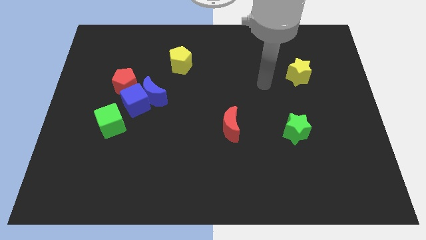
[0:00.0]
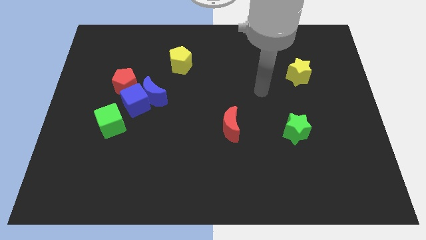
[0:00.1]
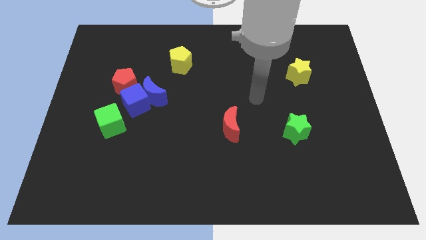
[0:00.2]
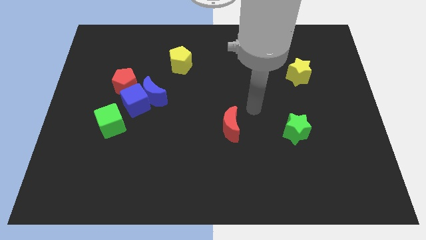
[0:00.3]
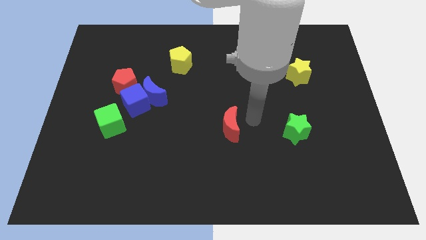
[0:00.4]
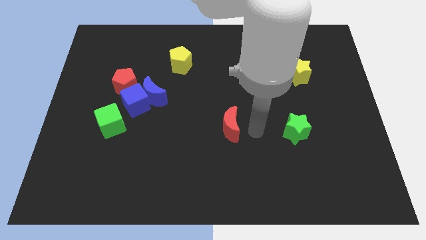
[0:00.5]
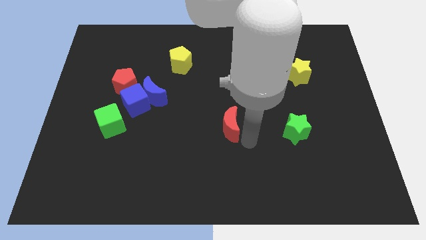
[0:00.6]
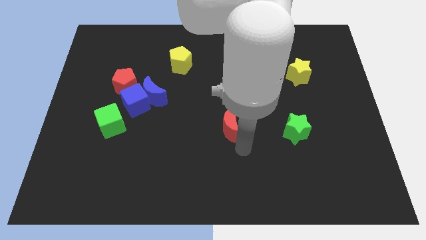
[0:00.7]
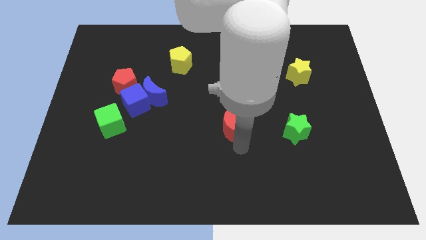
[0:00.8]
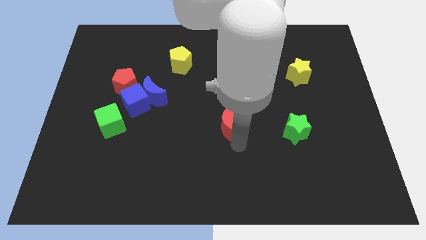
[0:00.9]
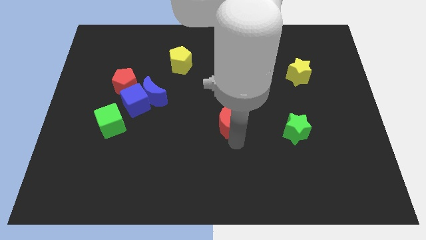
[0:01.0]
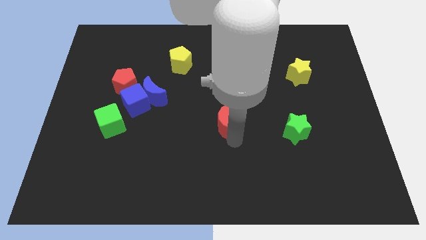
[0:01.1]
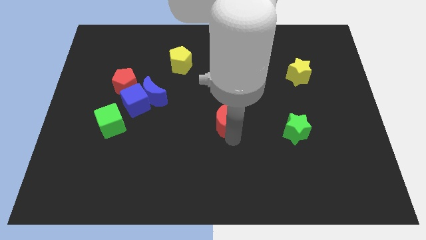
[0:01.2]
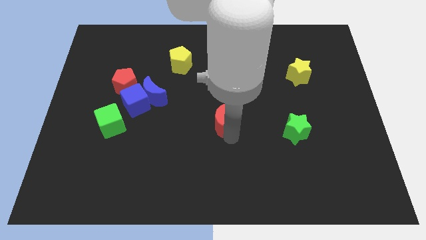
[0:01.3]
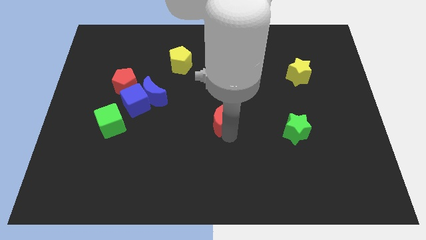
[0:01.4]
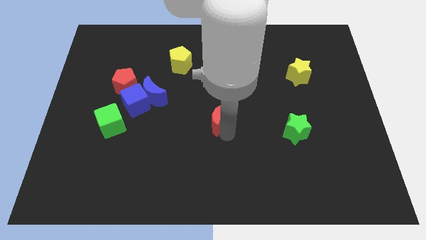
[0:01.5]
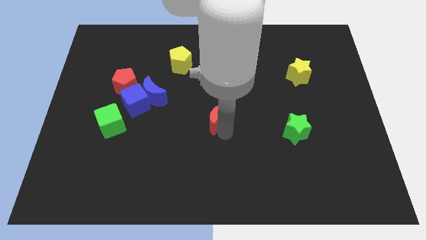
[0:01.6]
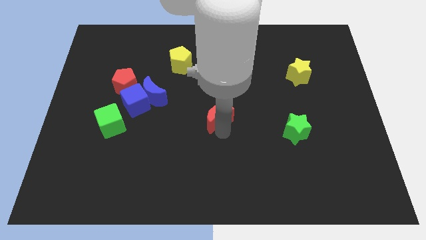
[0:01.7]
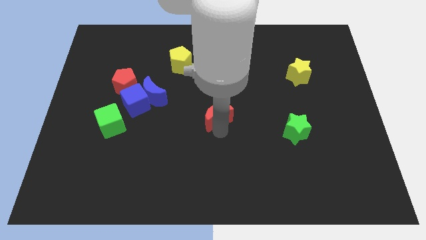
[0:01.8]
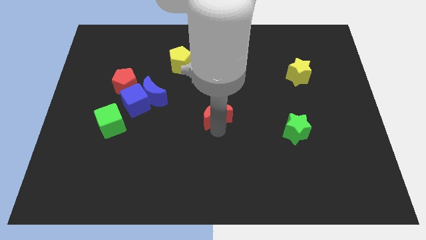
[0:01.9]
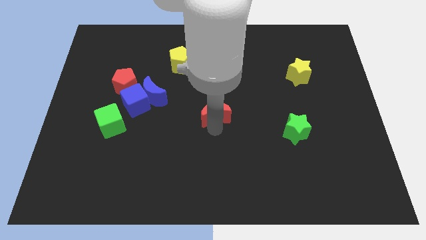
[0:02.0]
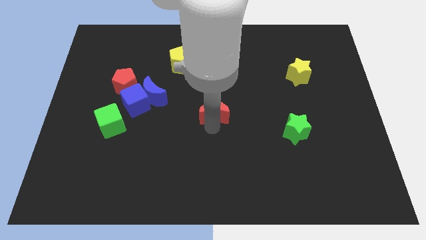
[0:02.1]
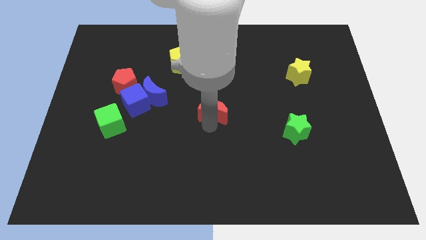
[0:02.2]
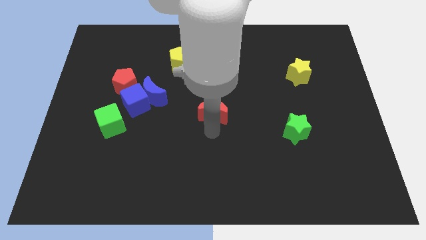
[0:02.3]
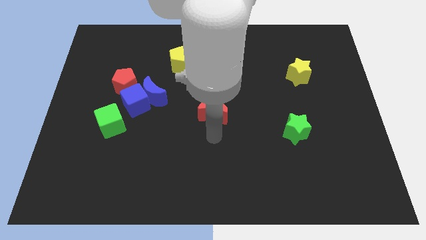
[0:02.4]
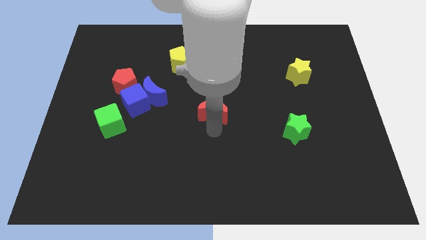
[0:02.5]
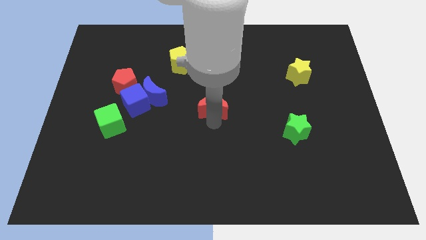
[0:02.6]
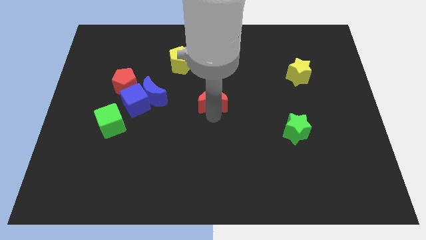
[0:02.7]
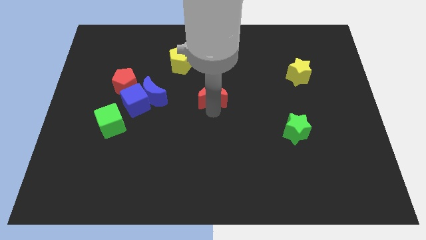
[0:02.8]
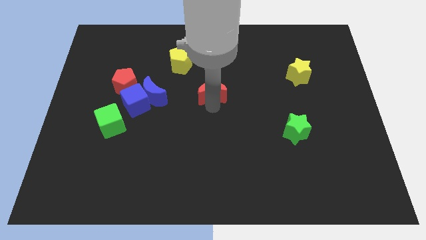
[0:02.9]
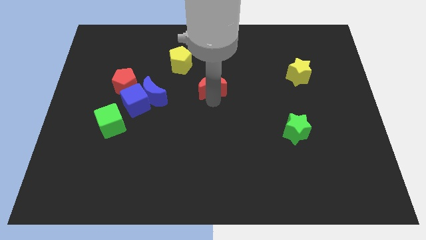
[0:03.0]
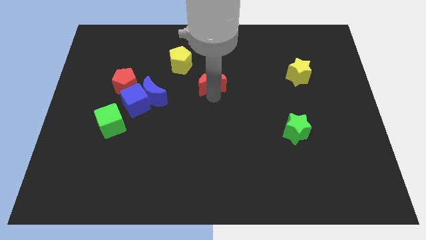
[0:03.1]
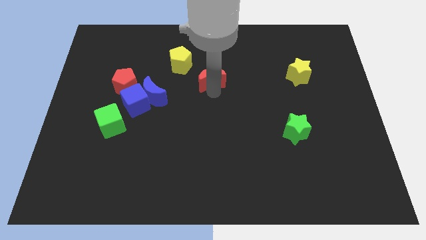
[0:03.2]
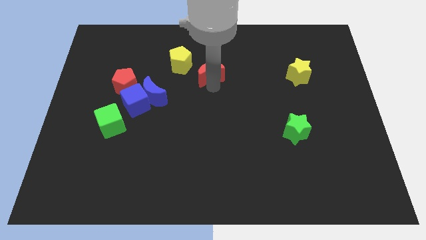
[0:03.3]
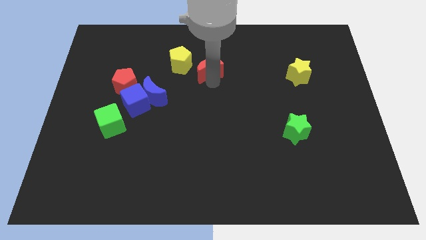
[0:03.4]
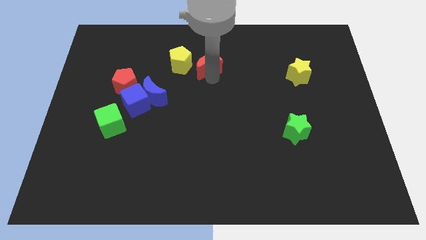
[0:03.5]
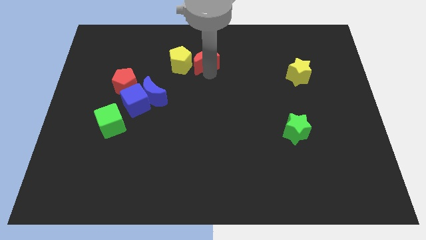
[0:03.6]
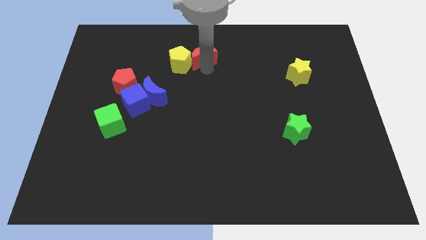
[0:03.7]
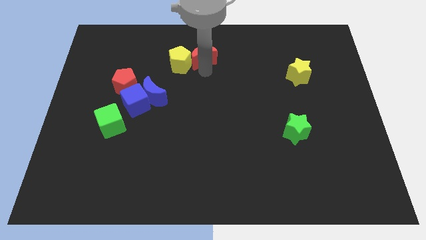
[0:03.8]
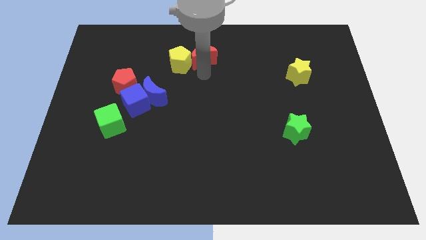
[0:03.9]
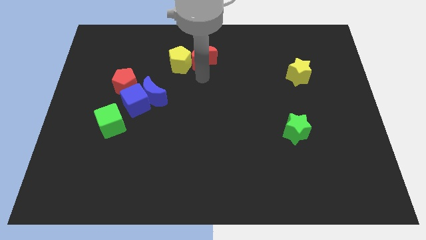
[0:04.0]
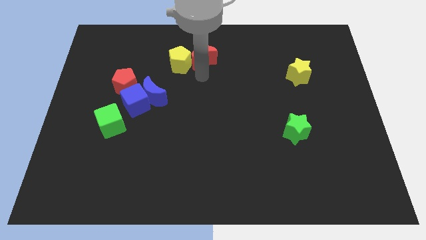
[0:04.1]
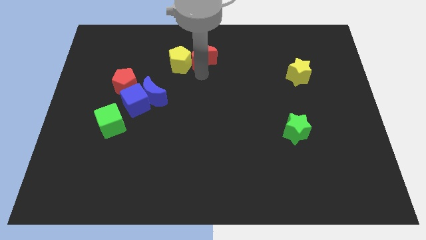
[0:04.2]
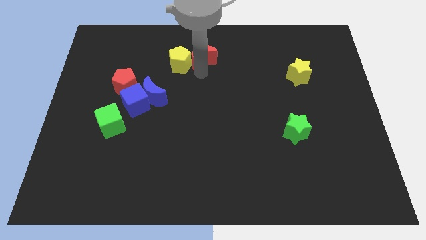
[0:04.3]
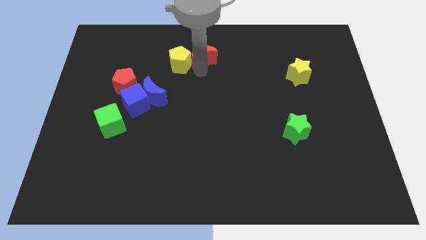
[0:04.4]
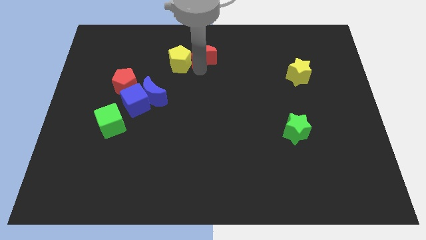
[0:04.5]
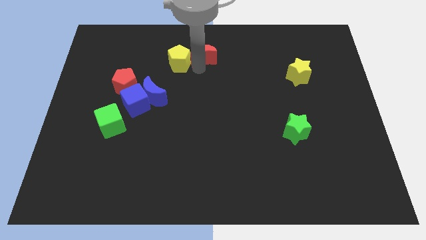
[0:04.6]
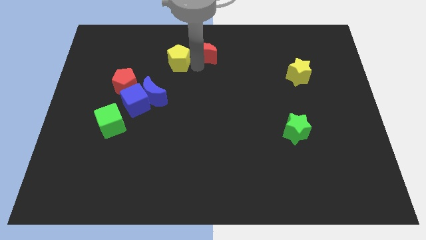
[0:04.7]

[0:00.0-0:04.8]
put the red moon to the top

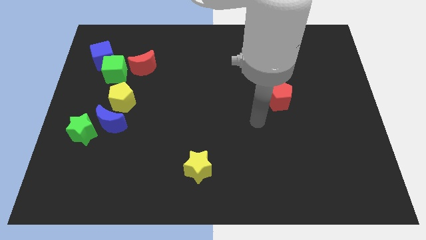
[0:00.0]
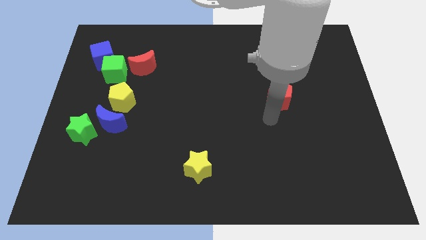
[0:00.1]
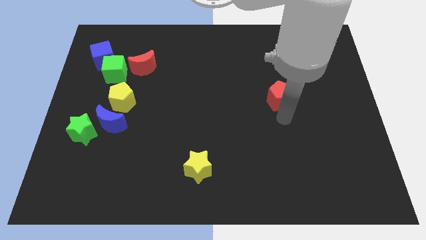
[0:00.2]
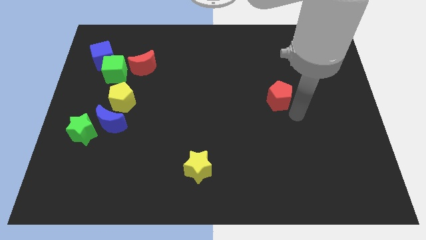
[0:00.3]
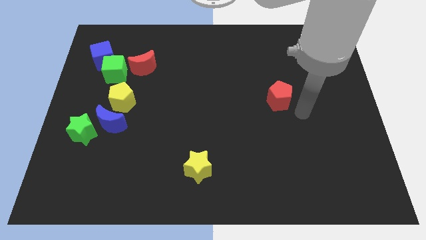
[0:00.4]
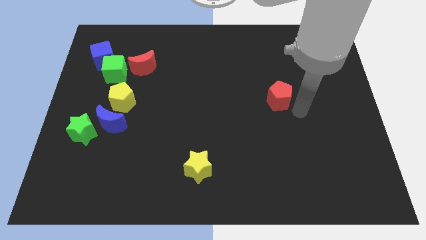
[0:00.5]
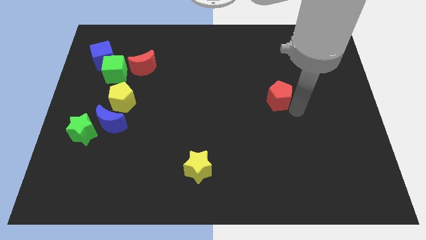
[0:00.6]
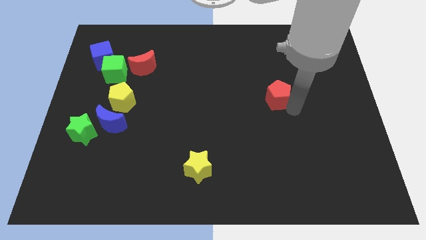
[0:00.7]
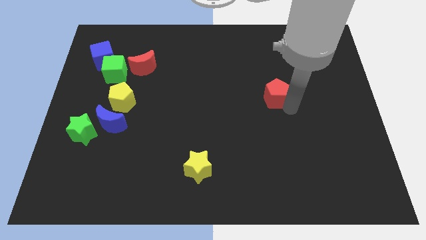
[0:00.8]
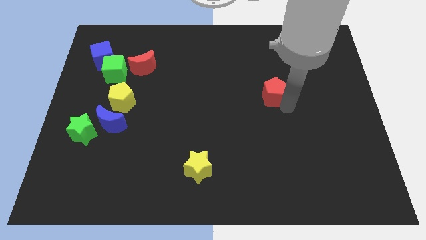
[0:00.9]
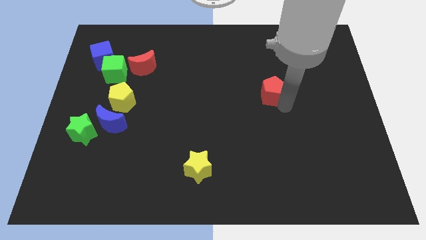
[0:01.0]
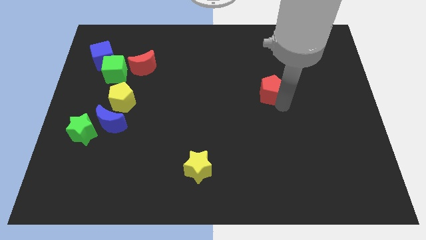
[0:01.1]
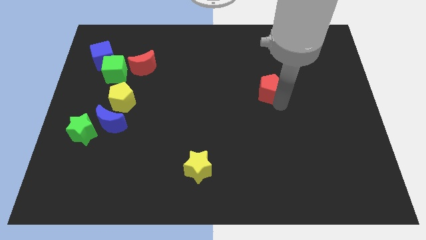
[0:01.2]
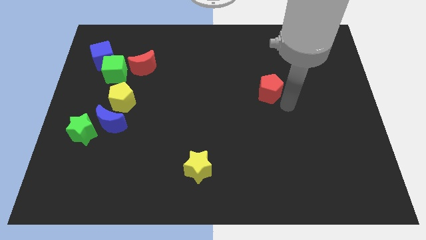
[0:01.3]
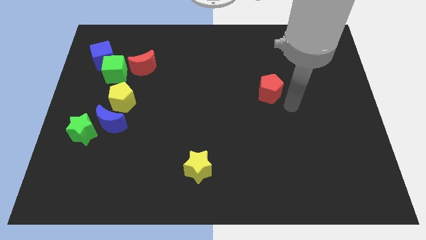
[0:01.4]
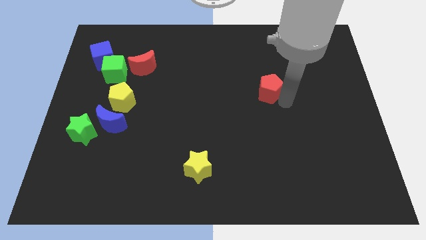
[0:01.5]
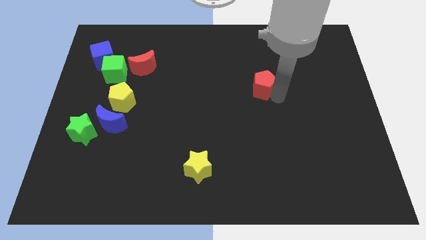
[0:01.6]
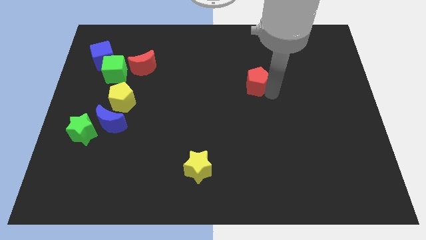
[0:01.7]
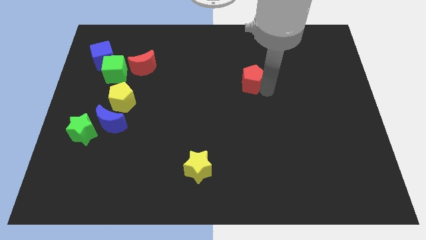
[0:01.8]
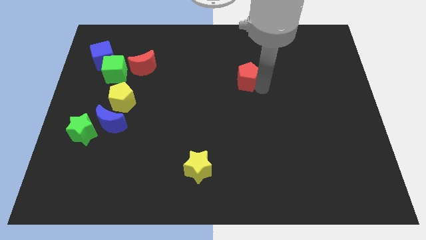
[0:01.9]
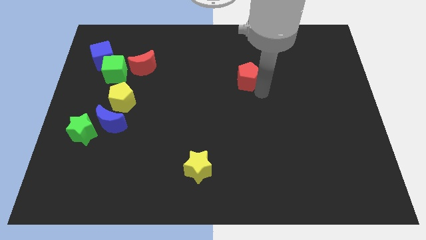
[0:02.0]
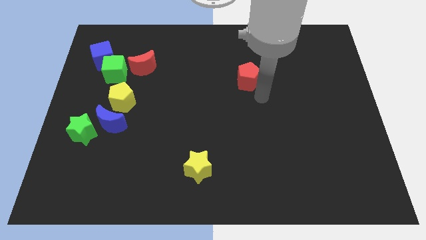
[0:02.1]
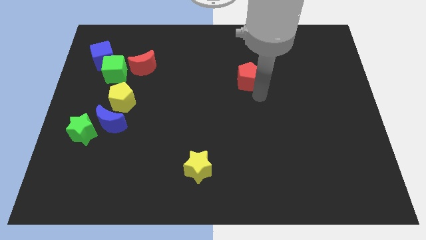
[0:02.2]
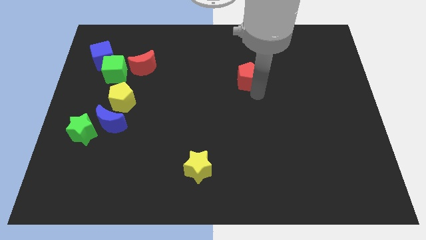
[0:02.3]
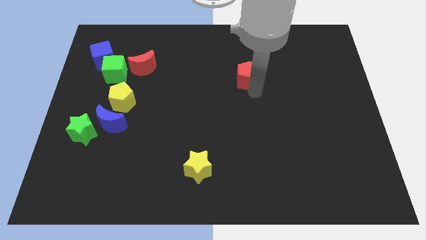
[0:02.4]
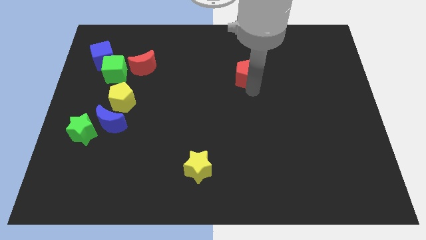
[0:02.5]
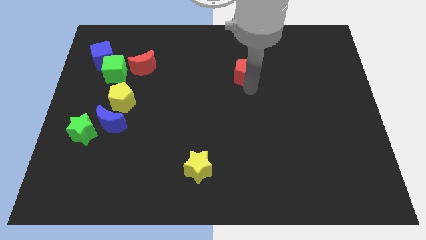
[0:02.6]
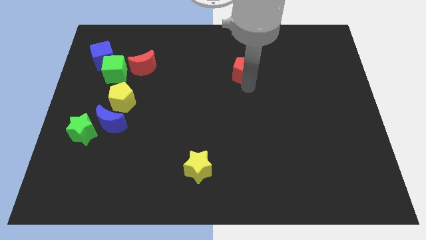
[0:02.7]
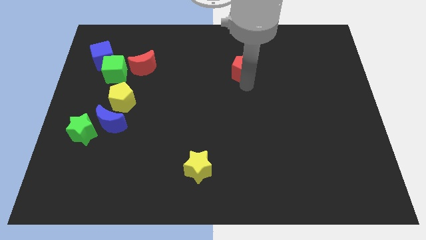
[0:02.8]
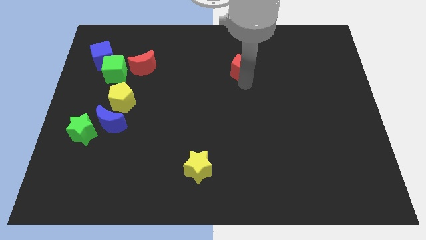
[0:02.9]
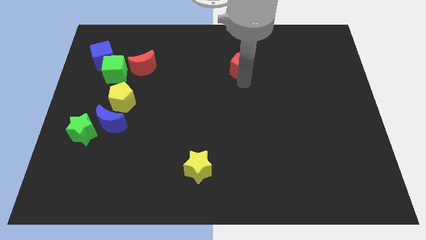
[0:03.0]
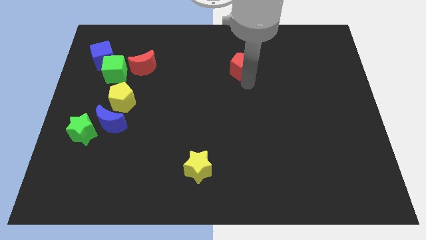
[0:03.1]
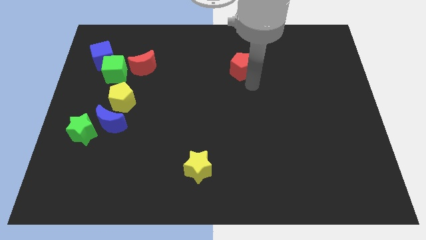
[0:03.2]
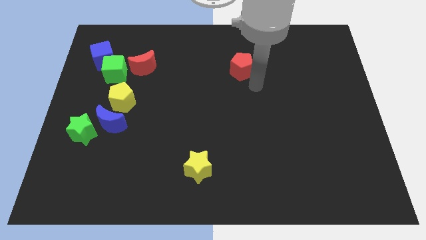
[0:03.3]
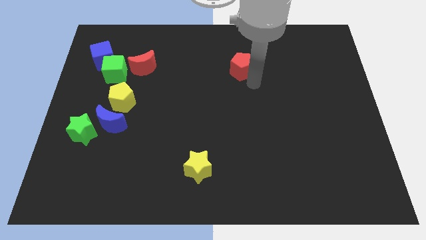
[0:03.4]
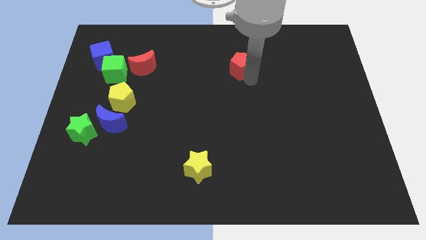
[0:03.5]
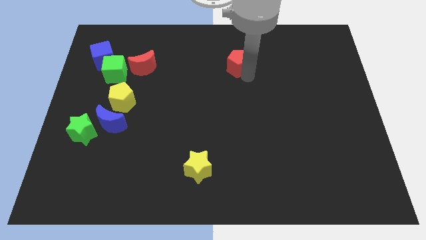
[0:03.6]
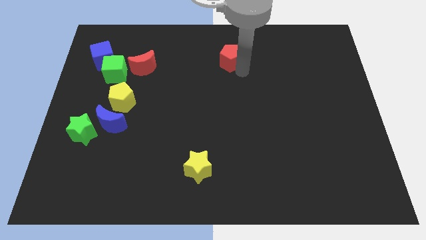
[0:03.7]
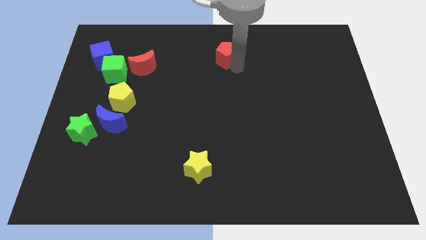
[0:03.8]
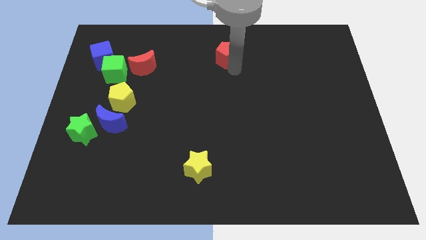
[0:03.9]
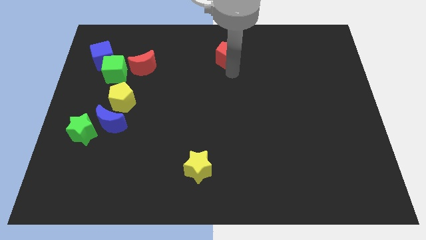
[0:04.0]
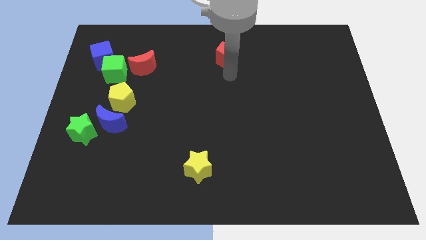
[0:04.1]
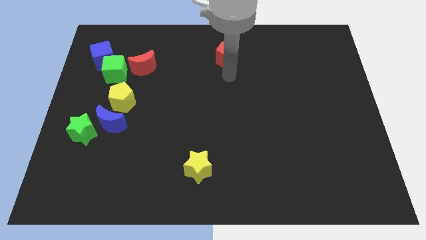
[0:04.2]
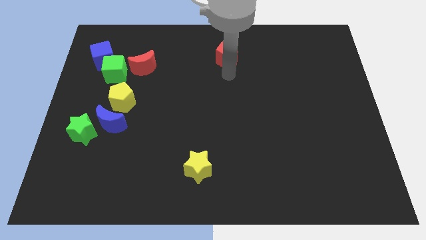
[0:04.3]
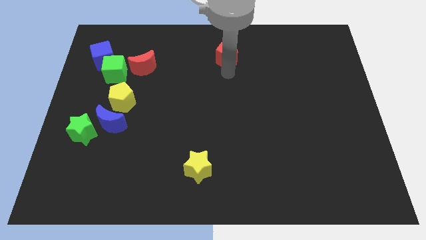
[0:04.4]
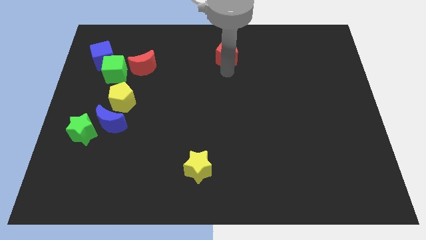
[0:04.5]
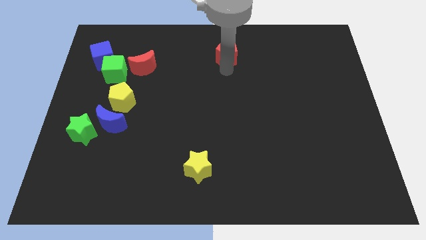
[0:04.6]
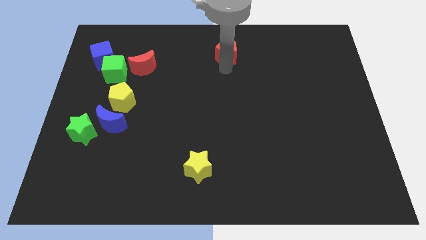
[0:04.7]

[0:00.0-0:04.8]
move the red pentagon to the top
